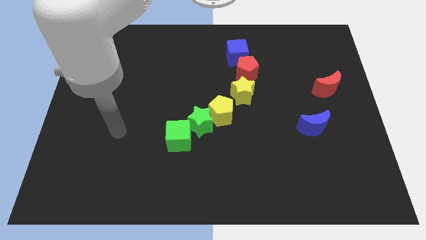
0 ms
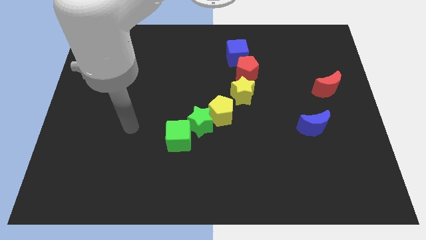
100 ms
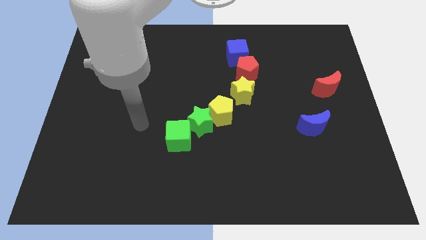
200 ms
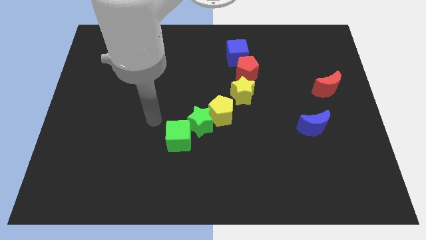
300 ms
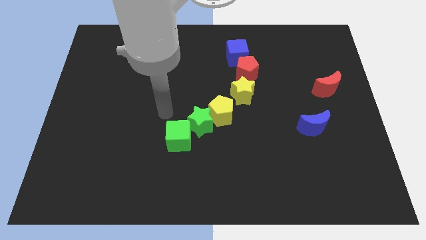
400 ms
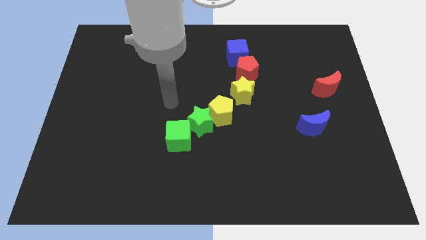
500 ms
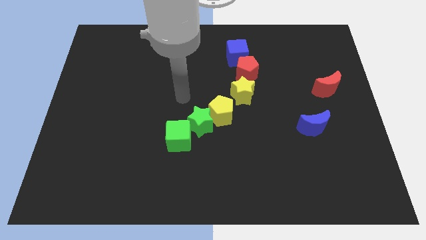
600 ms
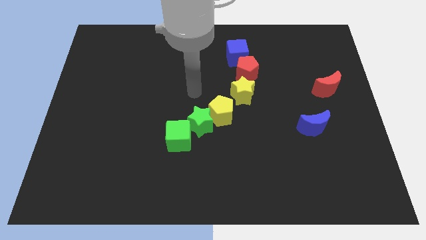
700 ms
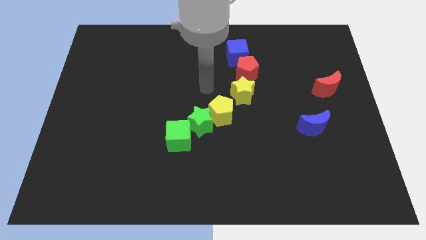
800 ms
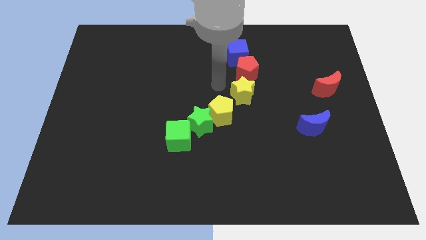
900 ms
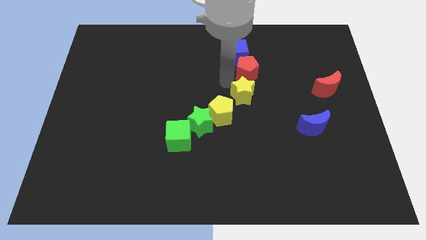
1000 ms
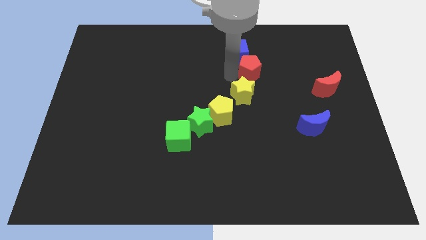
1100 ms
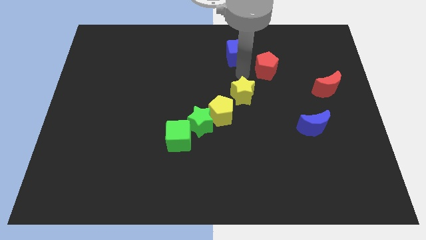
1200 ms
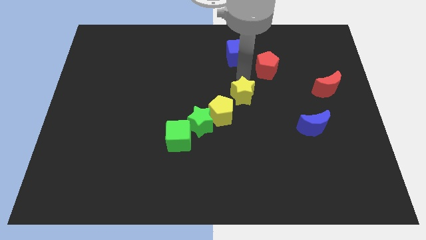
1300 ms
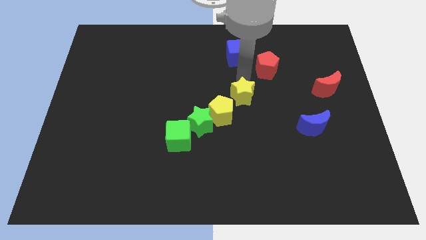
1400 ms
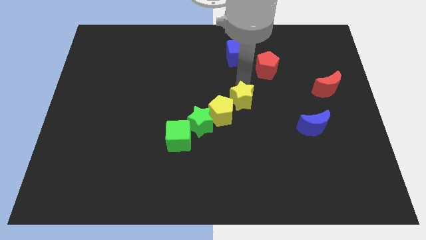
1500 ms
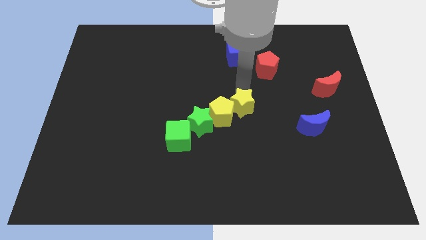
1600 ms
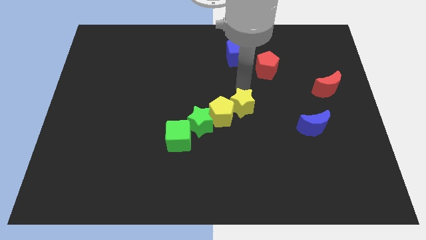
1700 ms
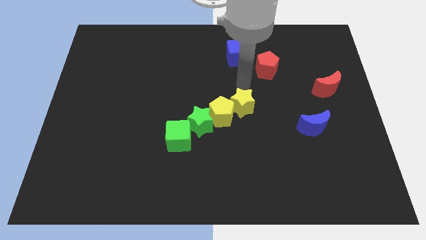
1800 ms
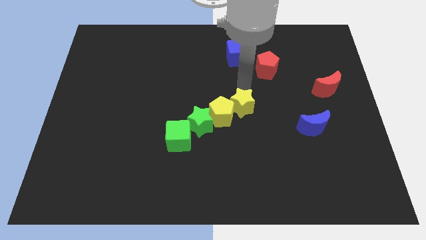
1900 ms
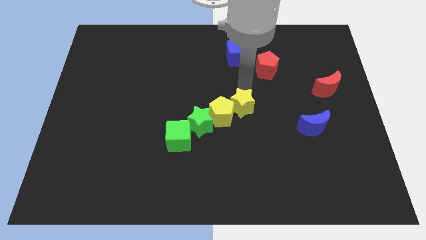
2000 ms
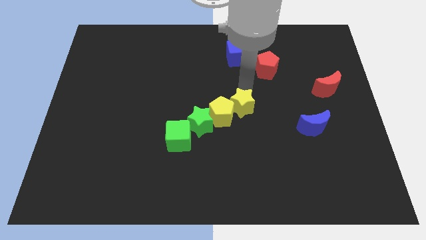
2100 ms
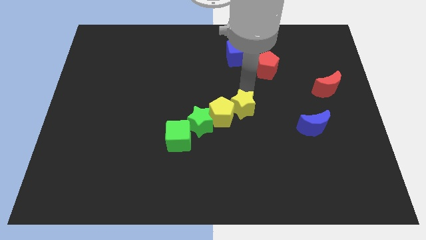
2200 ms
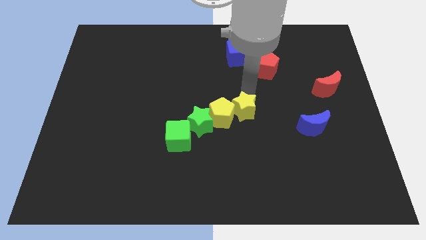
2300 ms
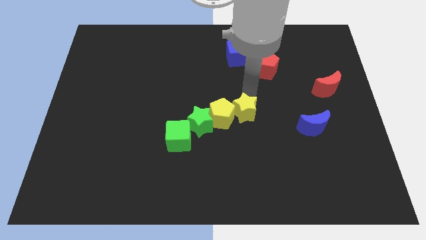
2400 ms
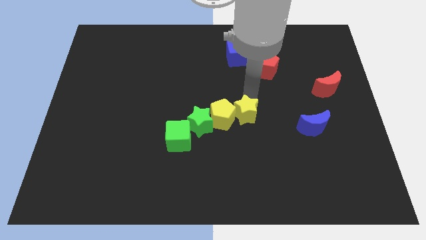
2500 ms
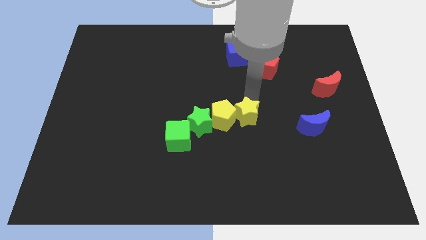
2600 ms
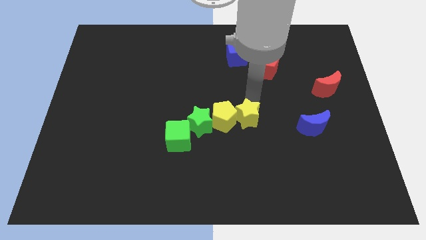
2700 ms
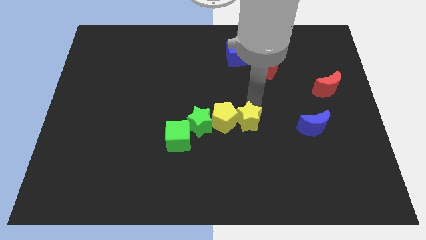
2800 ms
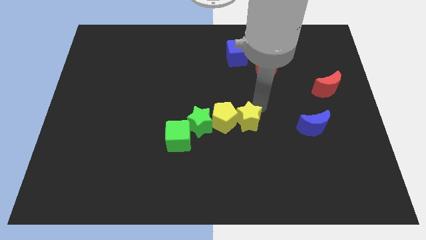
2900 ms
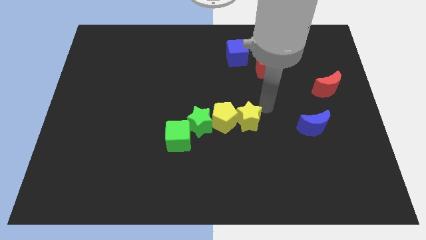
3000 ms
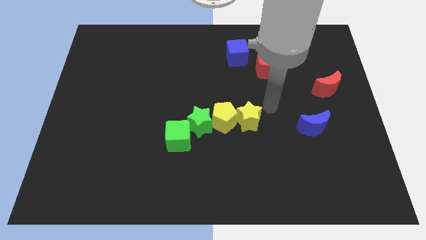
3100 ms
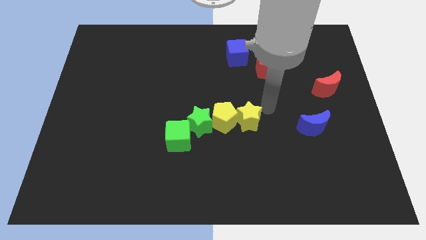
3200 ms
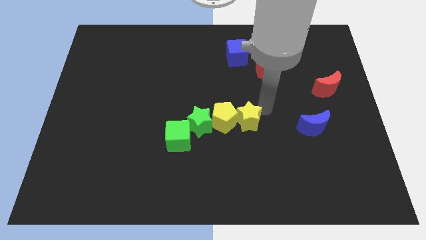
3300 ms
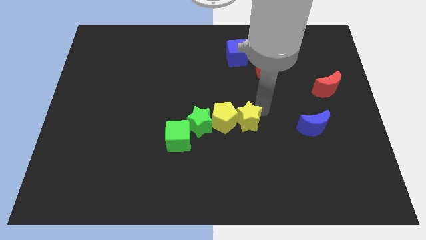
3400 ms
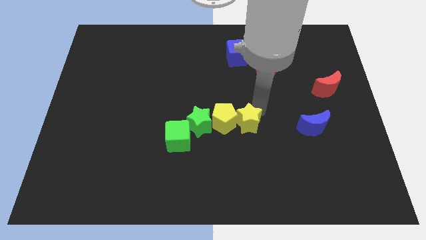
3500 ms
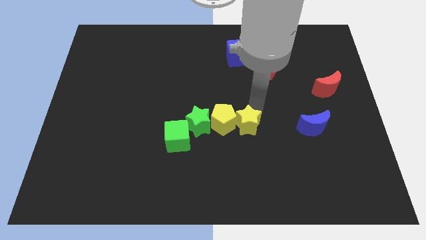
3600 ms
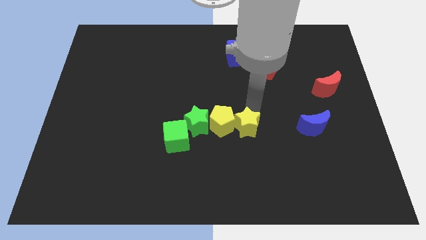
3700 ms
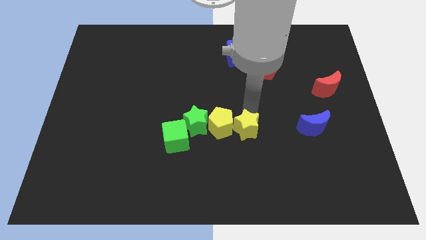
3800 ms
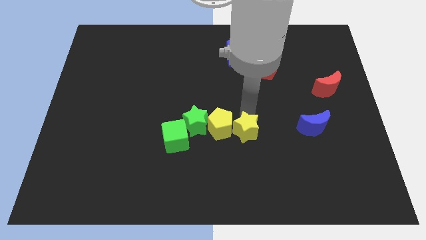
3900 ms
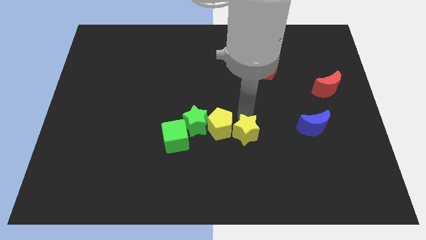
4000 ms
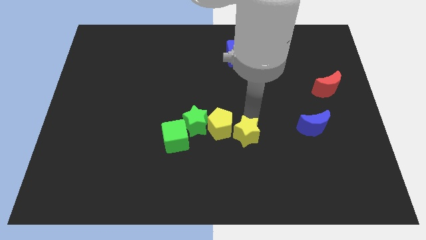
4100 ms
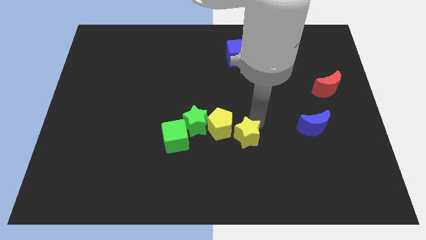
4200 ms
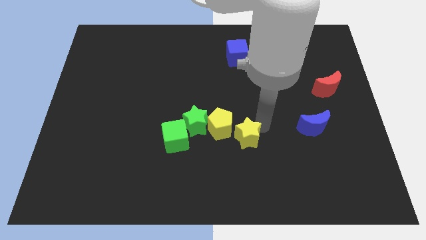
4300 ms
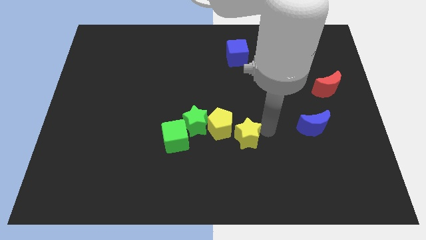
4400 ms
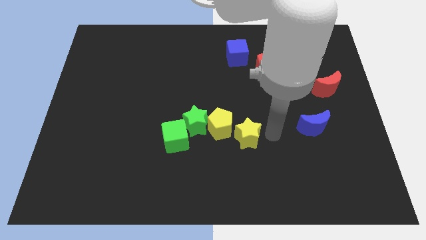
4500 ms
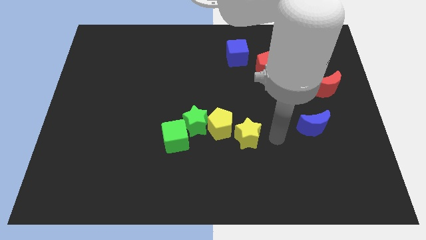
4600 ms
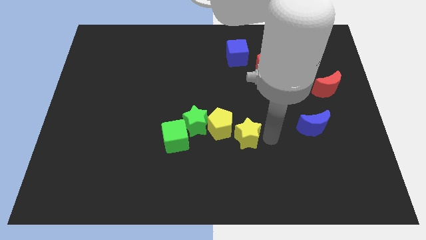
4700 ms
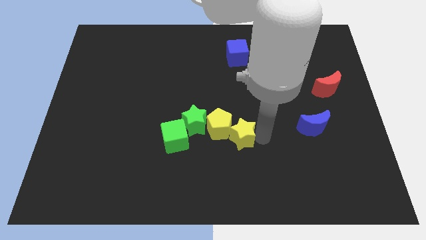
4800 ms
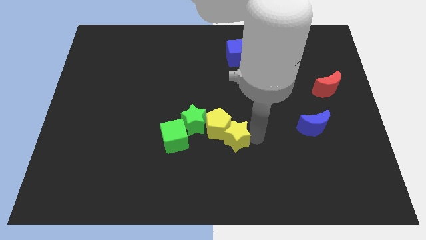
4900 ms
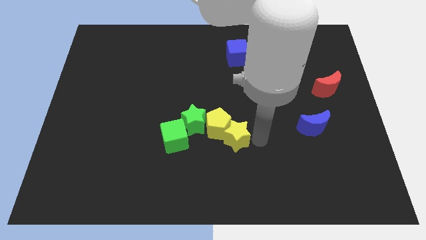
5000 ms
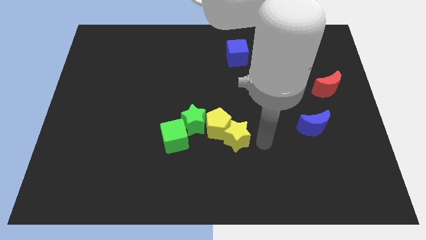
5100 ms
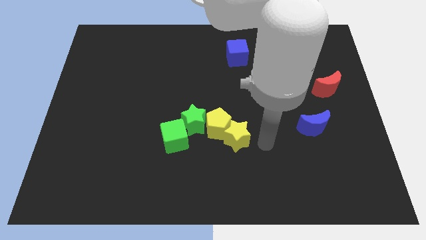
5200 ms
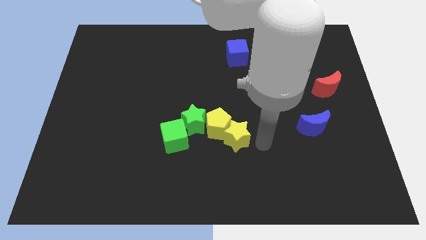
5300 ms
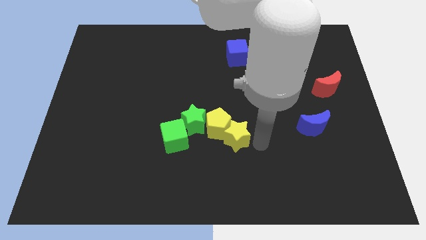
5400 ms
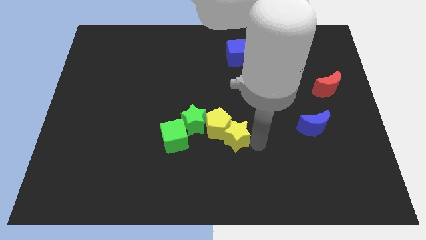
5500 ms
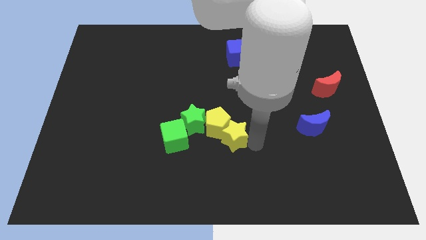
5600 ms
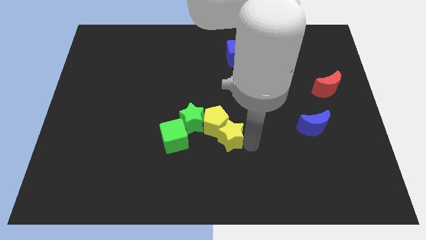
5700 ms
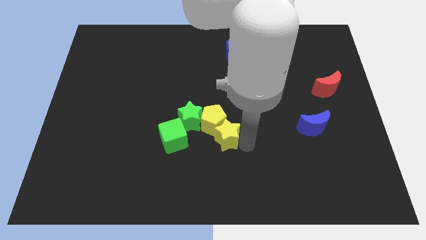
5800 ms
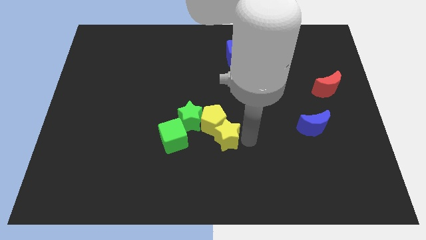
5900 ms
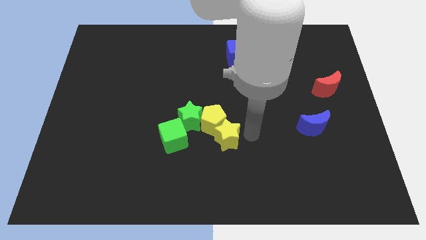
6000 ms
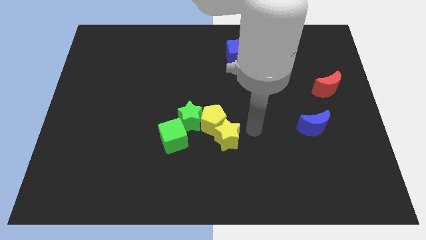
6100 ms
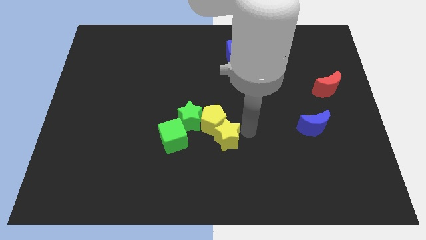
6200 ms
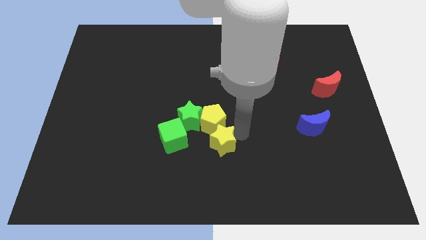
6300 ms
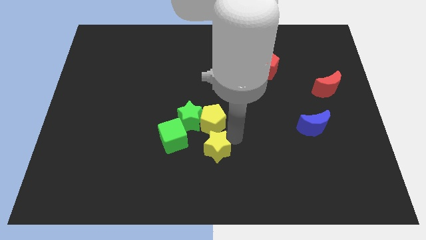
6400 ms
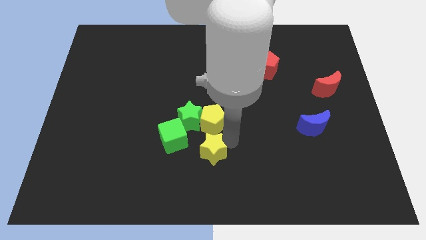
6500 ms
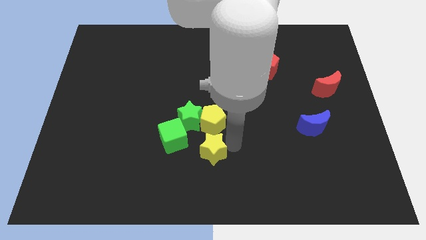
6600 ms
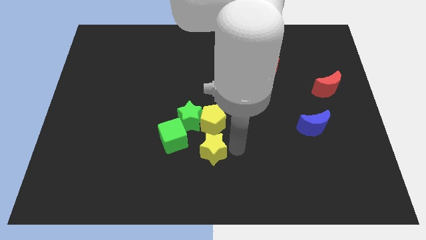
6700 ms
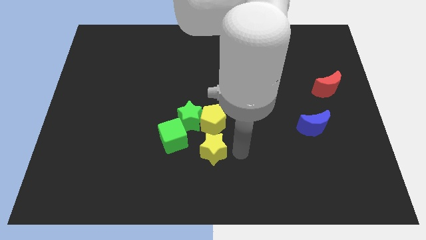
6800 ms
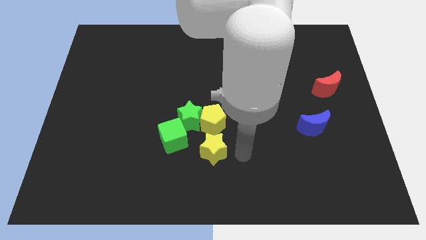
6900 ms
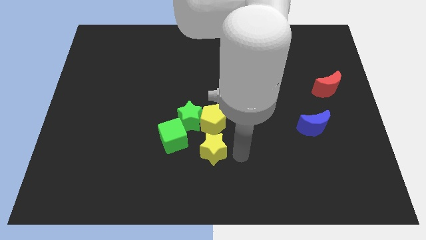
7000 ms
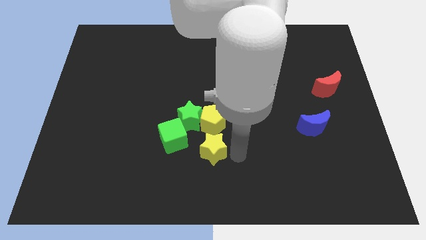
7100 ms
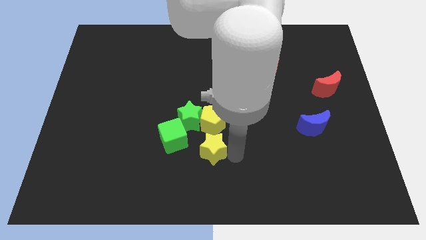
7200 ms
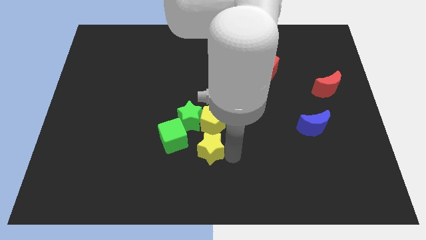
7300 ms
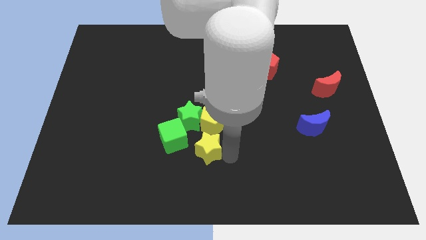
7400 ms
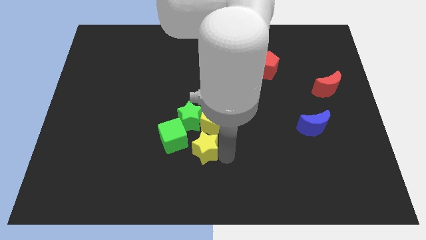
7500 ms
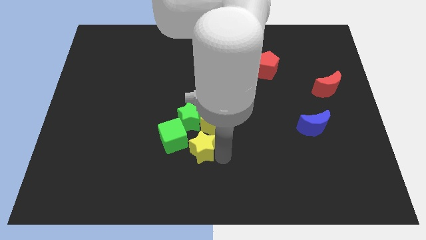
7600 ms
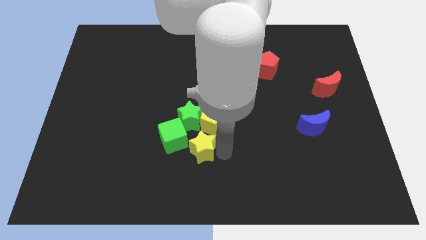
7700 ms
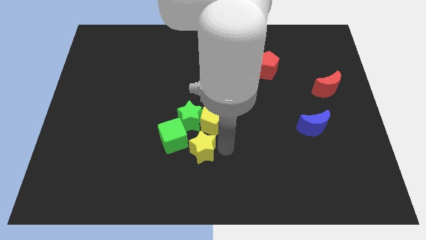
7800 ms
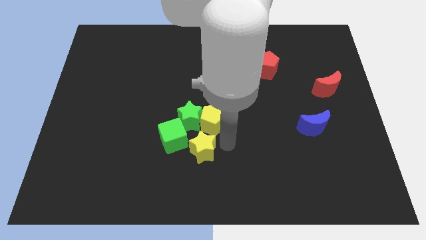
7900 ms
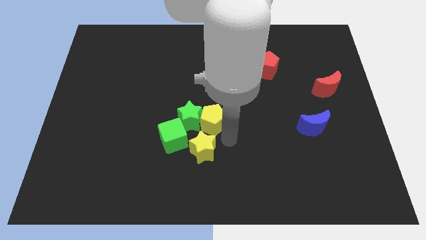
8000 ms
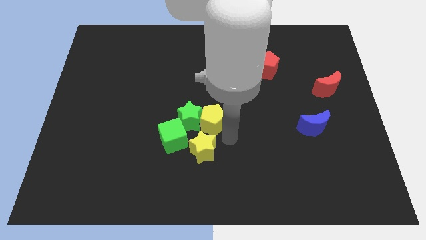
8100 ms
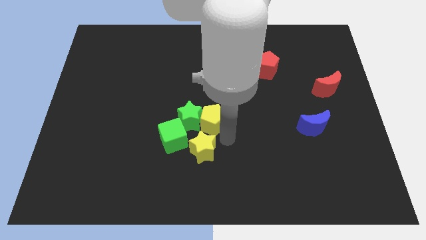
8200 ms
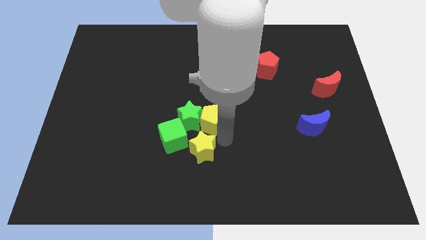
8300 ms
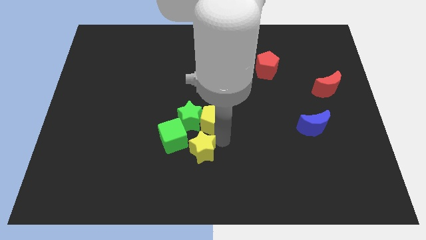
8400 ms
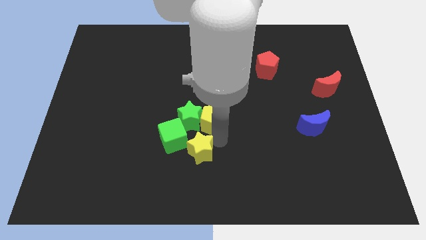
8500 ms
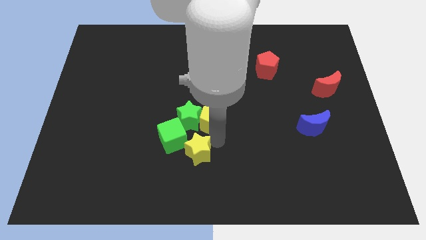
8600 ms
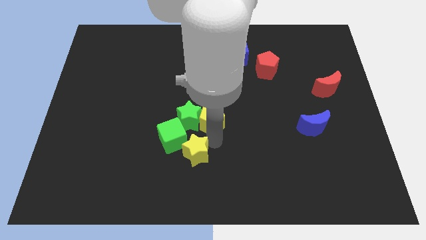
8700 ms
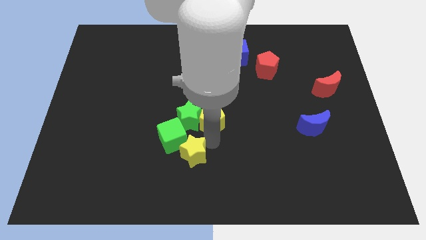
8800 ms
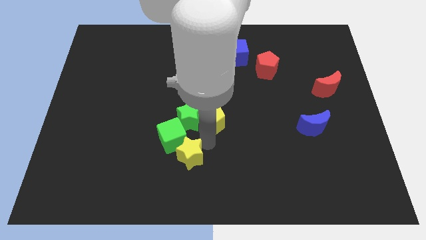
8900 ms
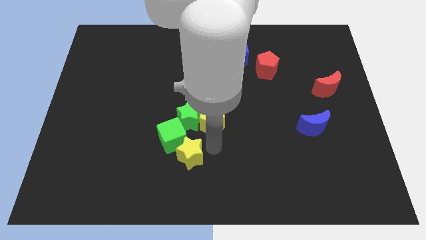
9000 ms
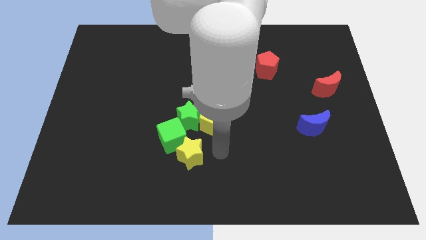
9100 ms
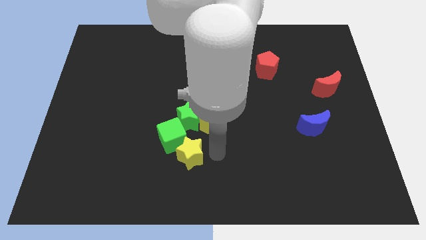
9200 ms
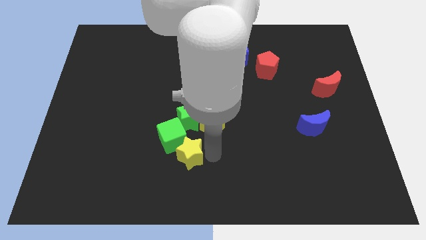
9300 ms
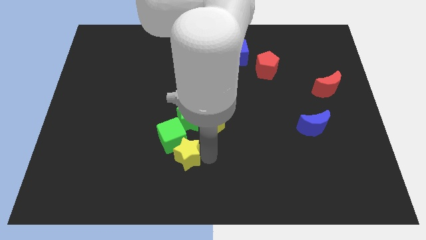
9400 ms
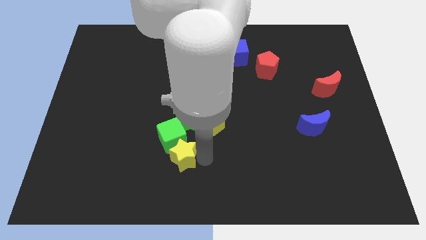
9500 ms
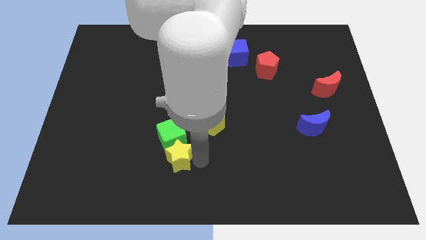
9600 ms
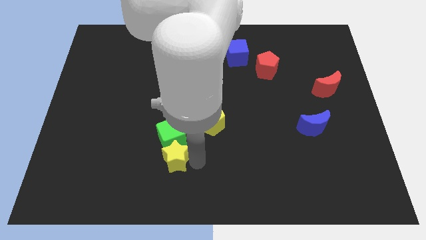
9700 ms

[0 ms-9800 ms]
put the yellow star diagonally down and to the left of the green cube
